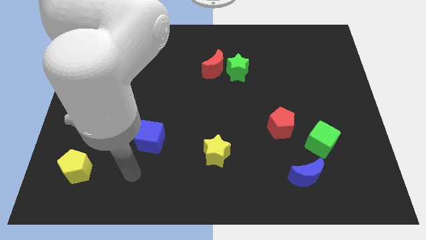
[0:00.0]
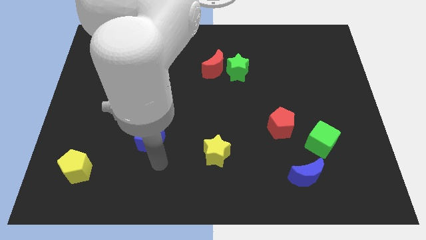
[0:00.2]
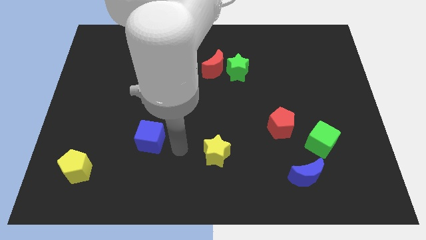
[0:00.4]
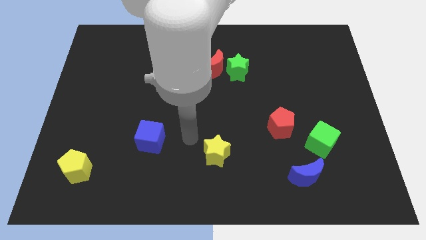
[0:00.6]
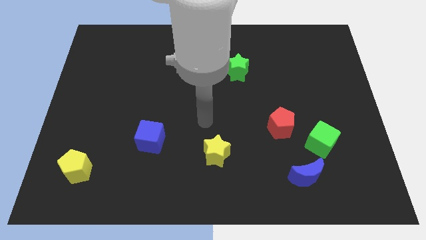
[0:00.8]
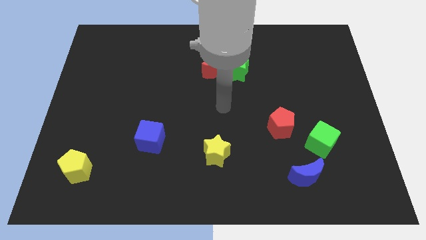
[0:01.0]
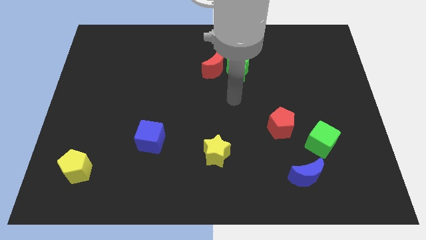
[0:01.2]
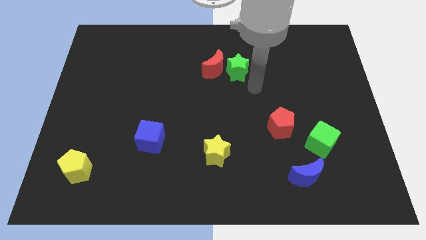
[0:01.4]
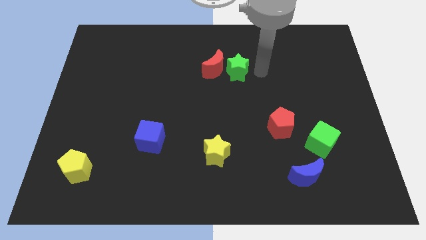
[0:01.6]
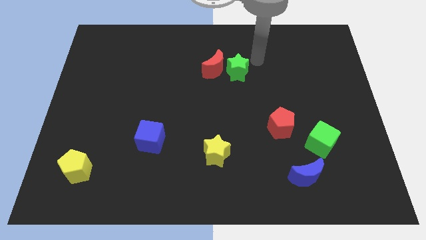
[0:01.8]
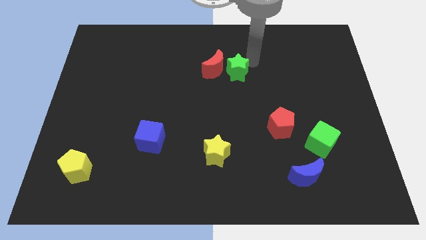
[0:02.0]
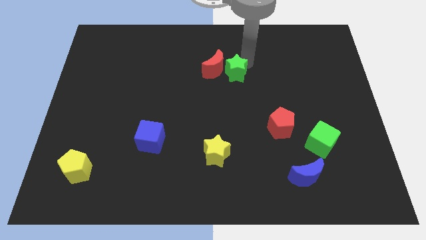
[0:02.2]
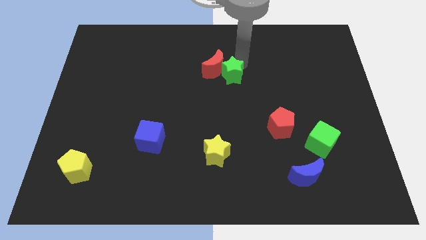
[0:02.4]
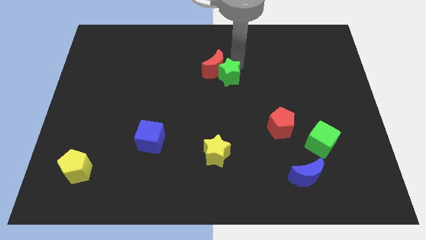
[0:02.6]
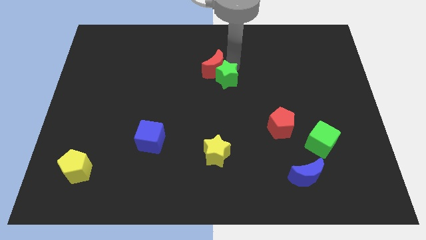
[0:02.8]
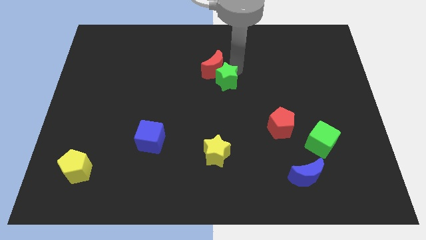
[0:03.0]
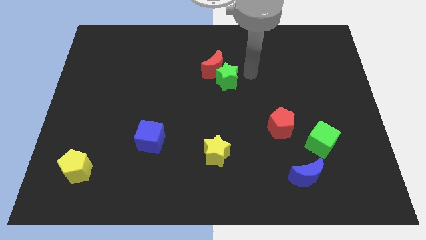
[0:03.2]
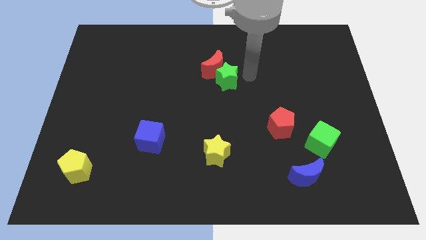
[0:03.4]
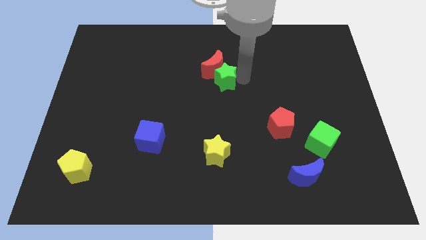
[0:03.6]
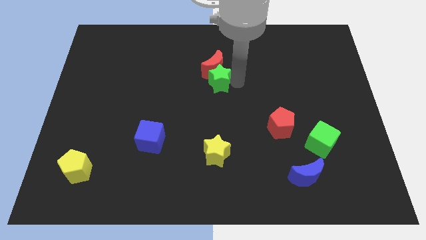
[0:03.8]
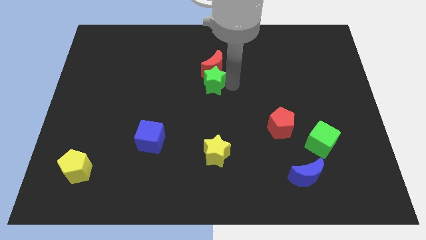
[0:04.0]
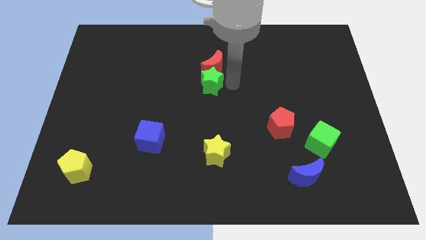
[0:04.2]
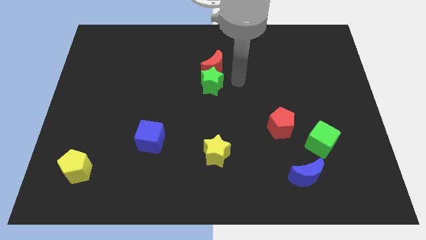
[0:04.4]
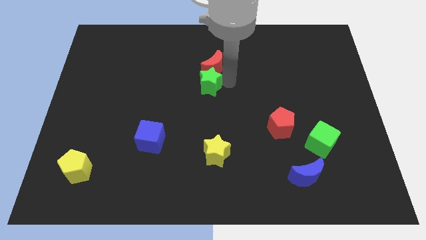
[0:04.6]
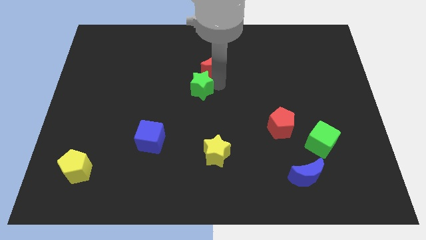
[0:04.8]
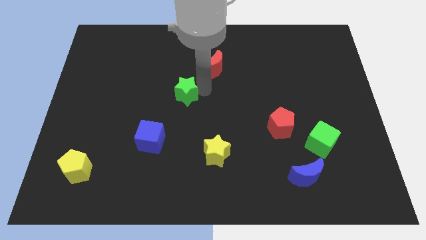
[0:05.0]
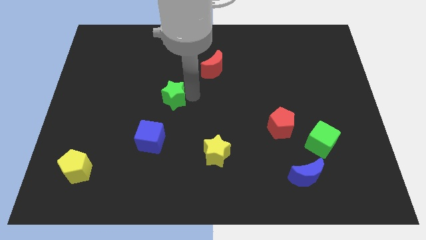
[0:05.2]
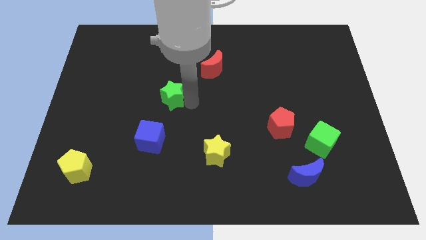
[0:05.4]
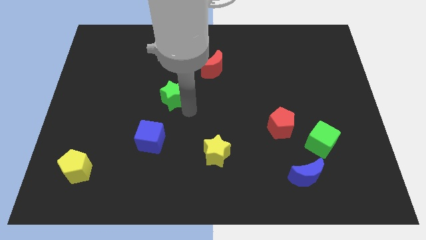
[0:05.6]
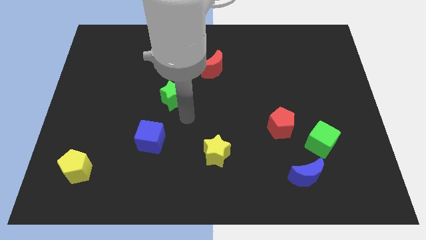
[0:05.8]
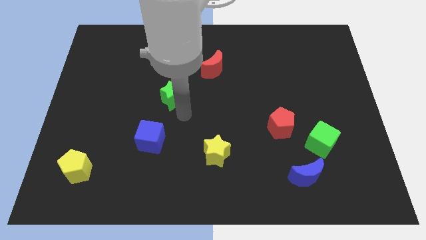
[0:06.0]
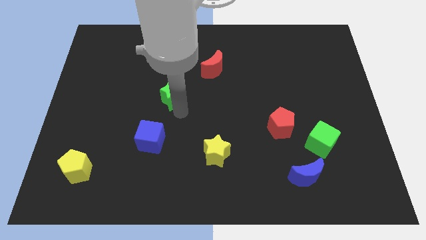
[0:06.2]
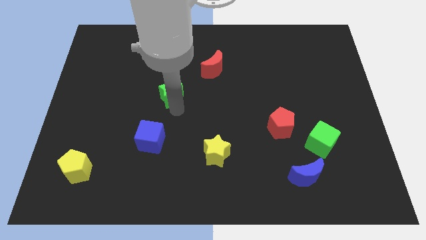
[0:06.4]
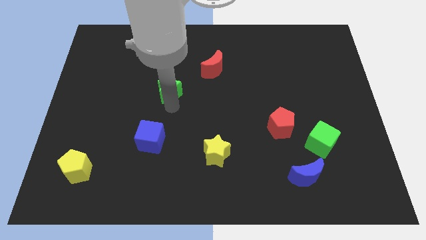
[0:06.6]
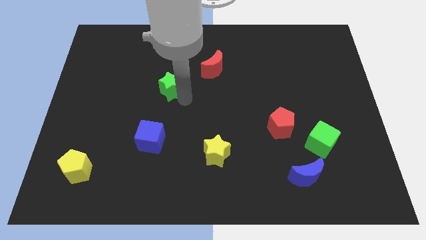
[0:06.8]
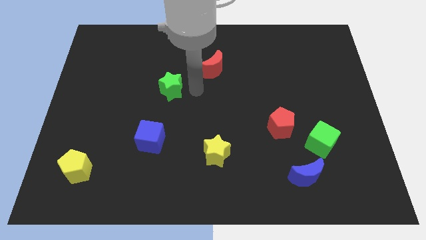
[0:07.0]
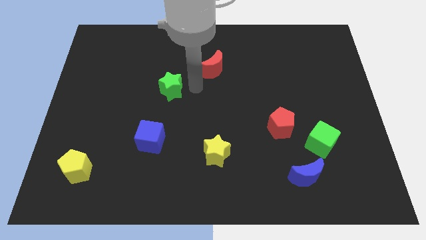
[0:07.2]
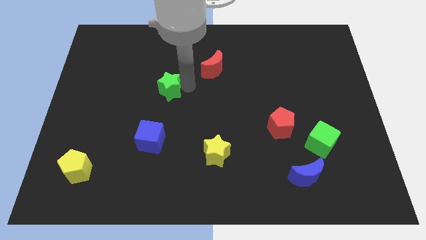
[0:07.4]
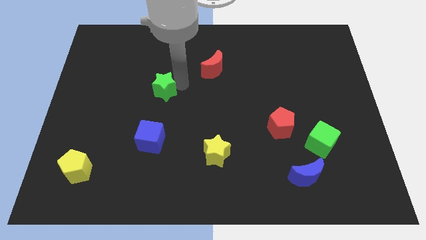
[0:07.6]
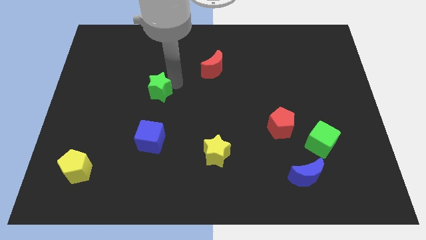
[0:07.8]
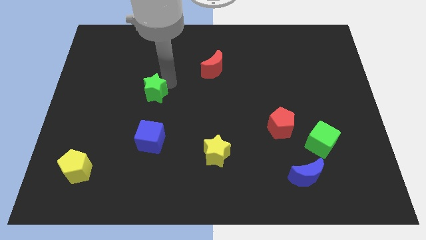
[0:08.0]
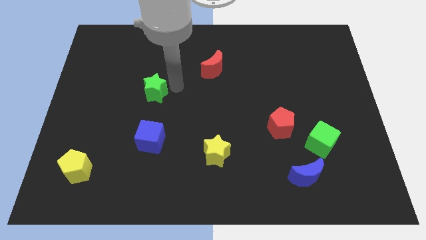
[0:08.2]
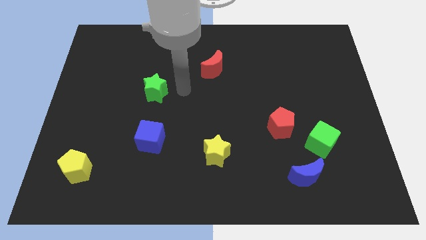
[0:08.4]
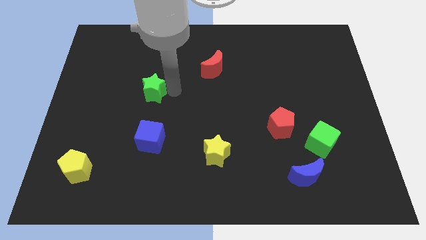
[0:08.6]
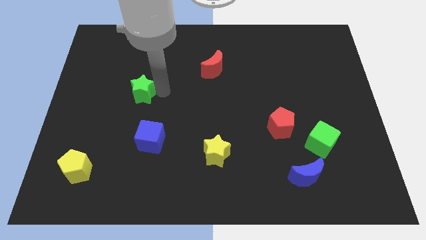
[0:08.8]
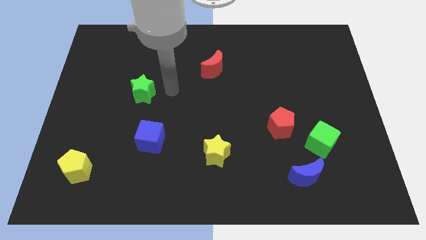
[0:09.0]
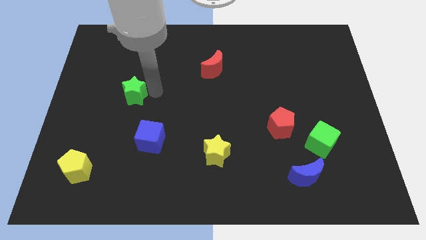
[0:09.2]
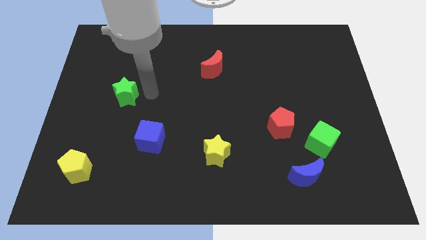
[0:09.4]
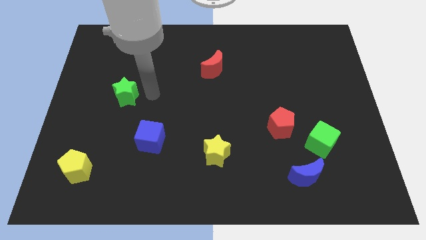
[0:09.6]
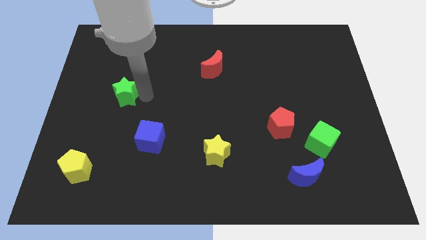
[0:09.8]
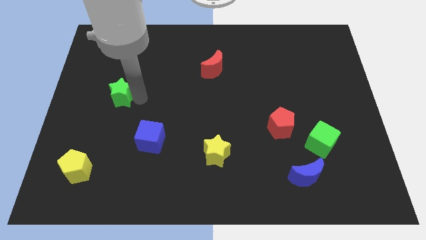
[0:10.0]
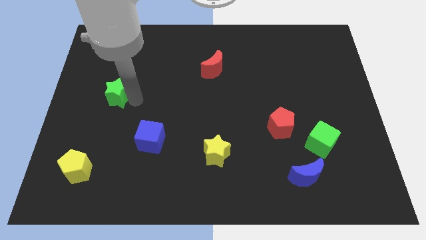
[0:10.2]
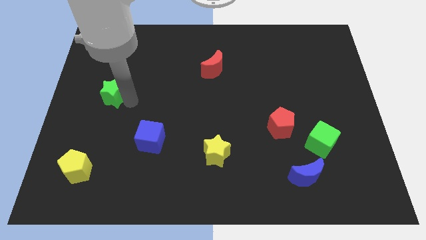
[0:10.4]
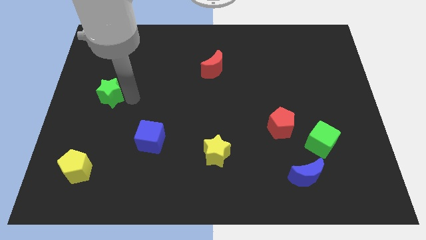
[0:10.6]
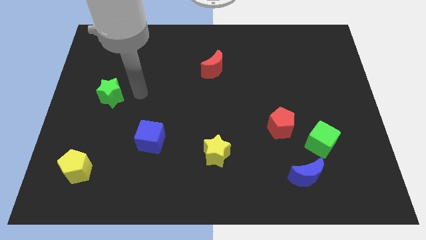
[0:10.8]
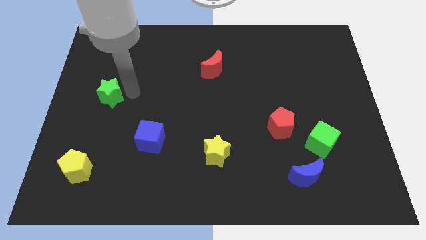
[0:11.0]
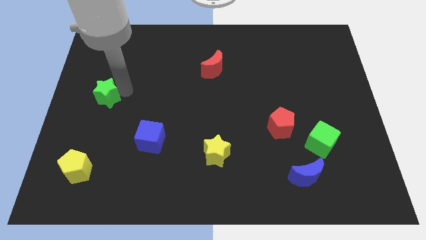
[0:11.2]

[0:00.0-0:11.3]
push the green star to the center left

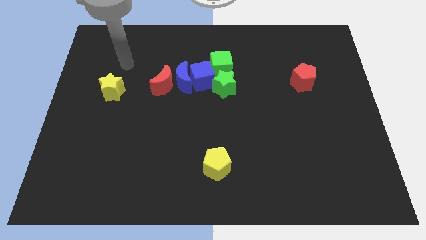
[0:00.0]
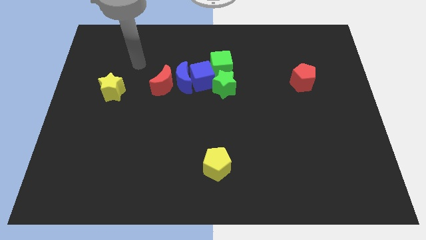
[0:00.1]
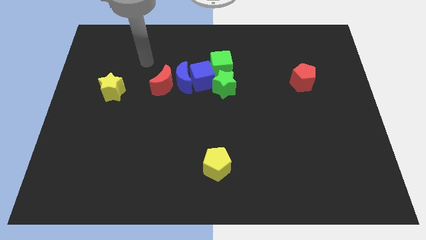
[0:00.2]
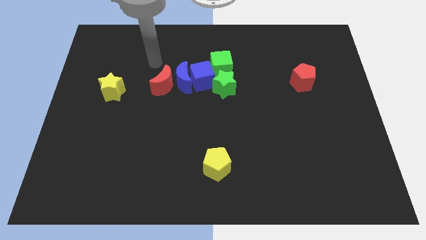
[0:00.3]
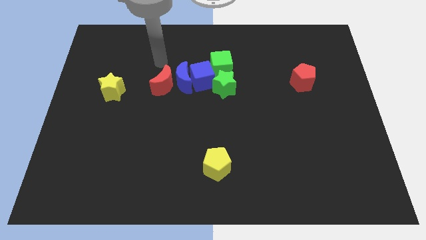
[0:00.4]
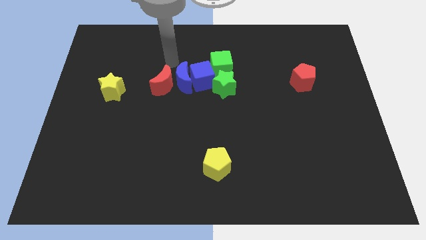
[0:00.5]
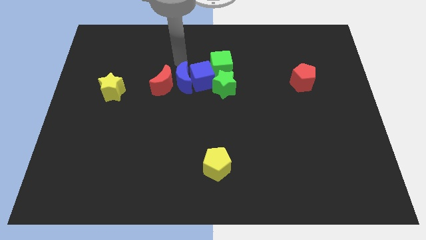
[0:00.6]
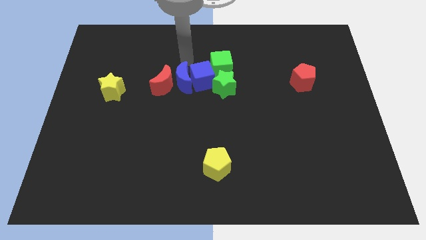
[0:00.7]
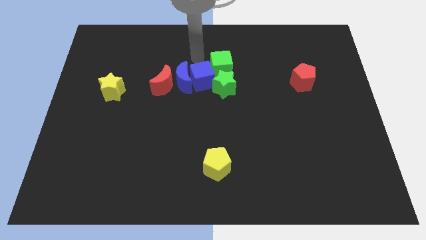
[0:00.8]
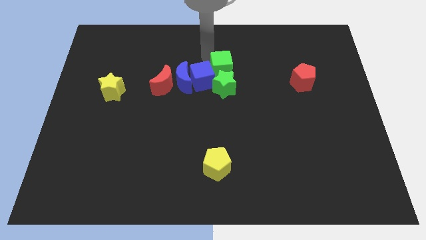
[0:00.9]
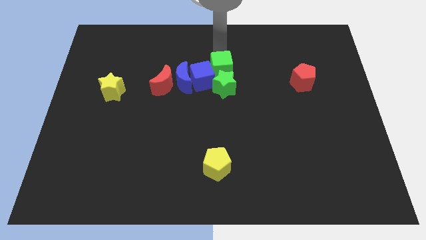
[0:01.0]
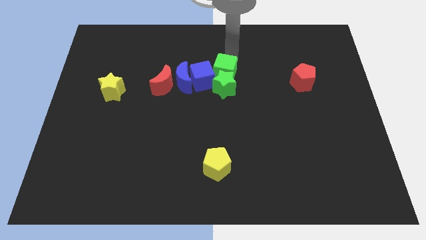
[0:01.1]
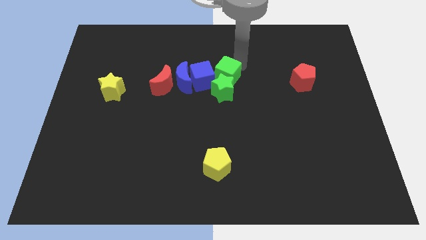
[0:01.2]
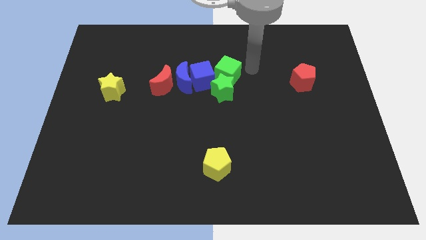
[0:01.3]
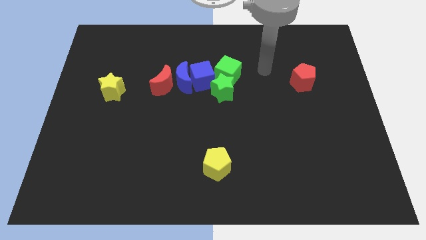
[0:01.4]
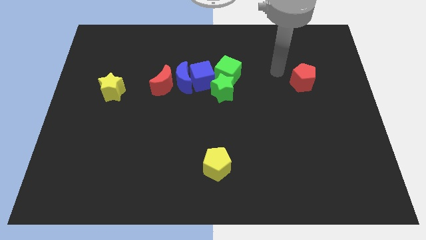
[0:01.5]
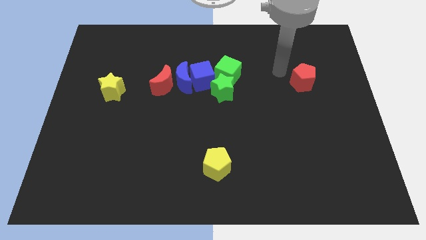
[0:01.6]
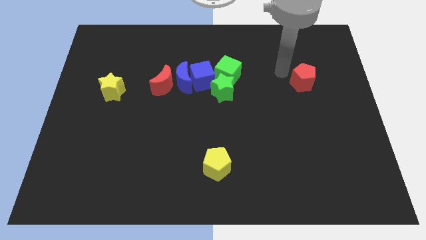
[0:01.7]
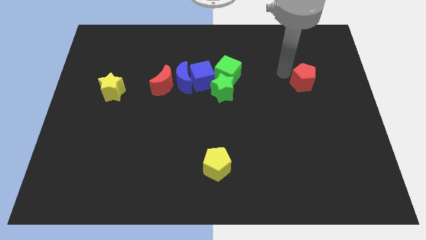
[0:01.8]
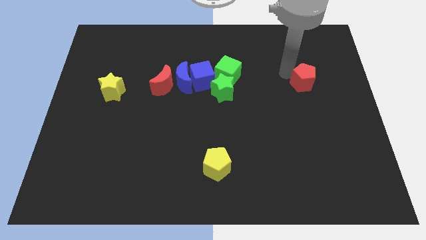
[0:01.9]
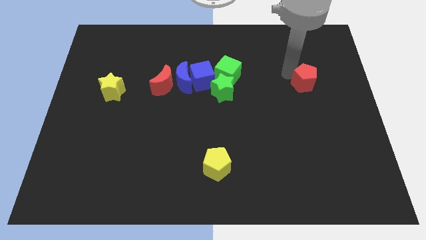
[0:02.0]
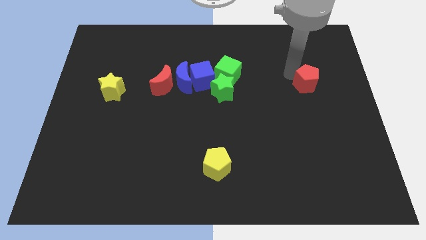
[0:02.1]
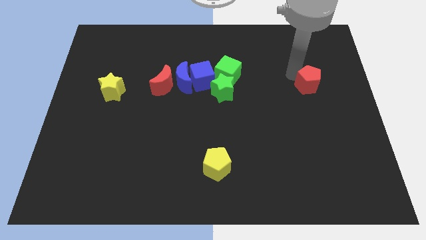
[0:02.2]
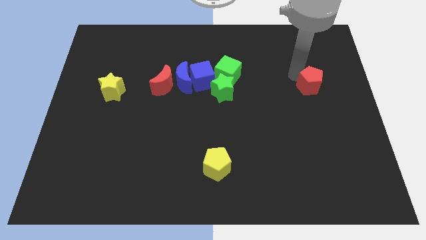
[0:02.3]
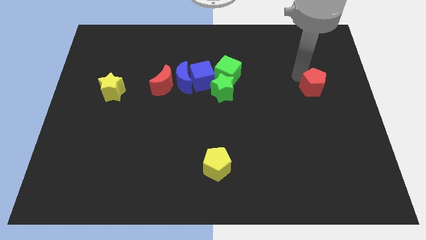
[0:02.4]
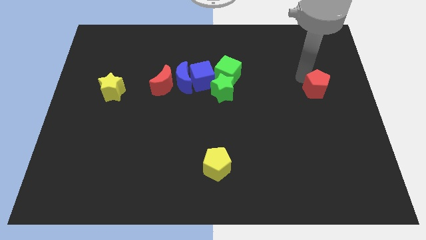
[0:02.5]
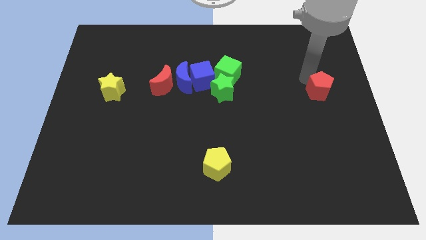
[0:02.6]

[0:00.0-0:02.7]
move the red pentagon to the right side of the board
